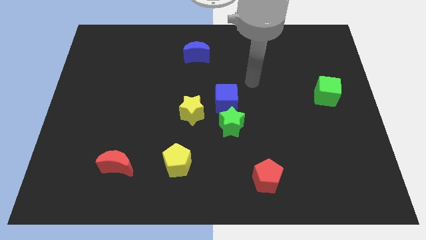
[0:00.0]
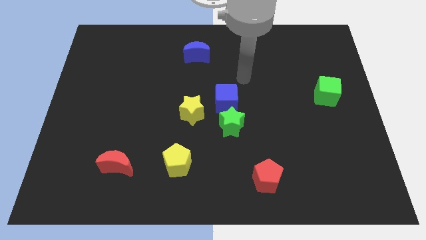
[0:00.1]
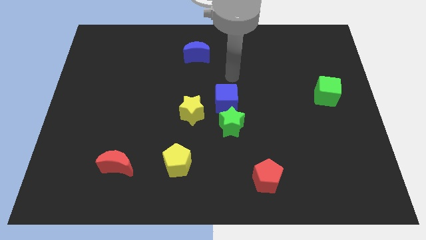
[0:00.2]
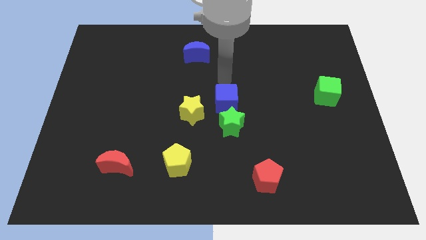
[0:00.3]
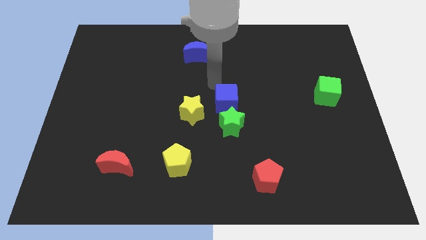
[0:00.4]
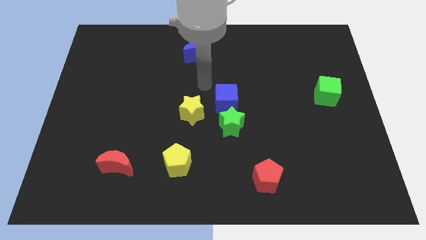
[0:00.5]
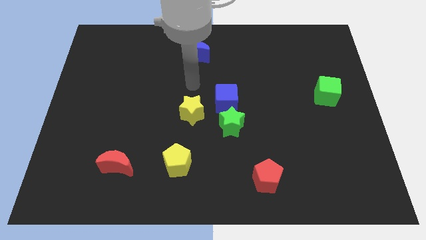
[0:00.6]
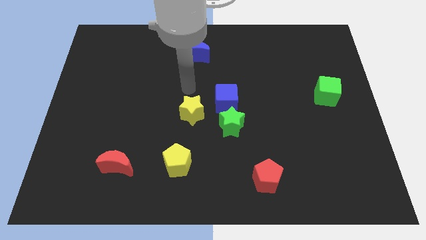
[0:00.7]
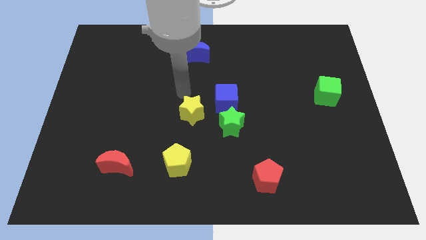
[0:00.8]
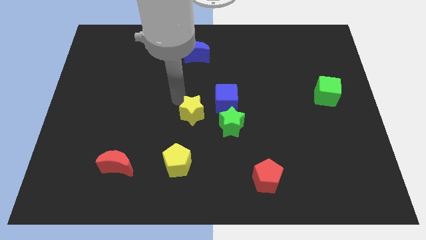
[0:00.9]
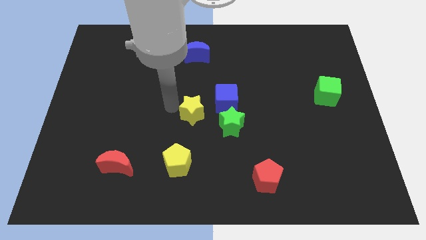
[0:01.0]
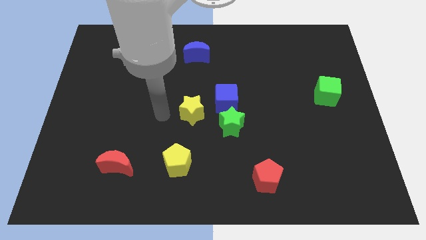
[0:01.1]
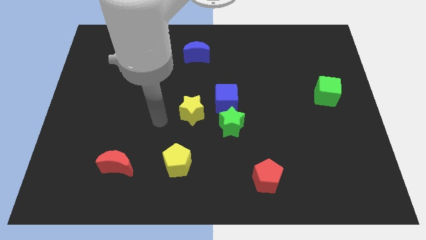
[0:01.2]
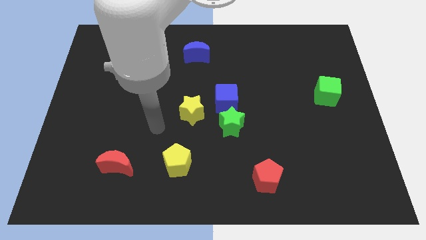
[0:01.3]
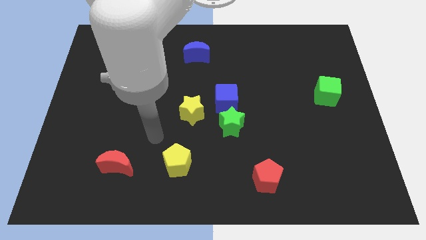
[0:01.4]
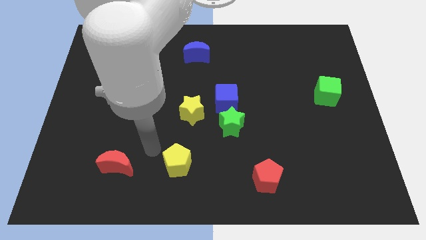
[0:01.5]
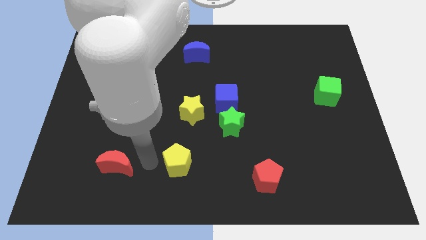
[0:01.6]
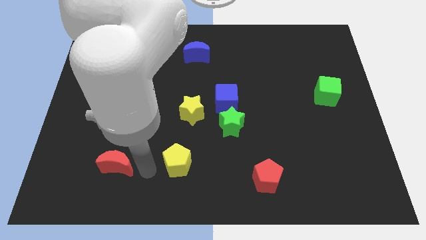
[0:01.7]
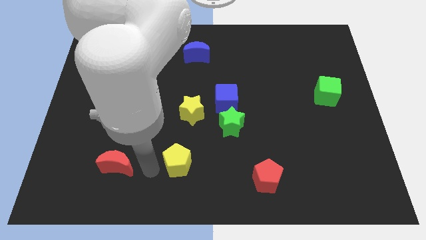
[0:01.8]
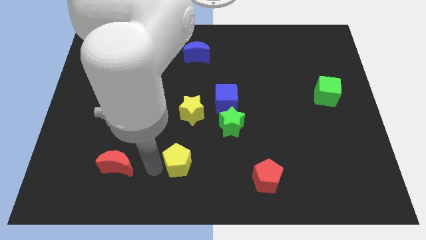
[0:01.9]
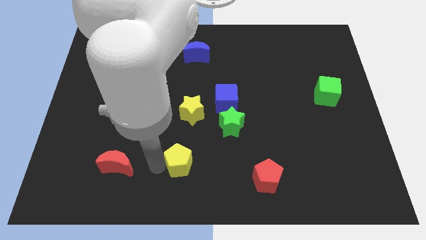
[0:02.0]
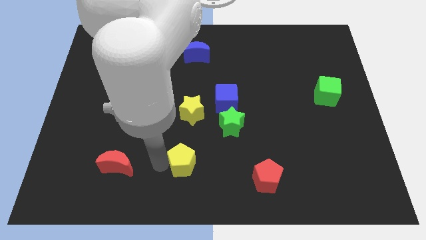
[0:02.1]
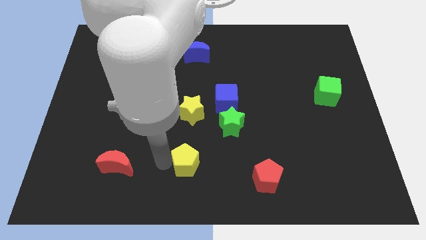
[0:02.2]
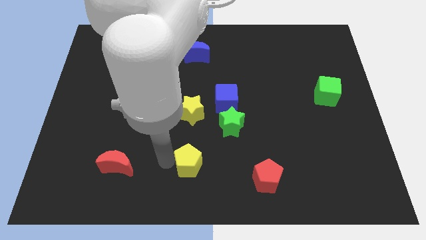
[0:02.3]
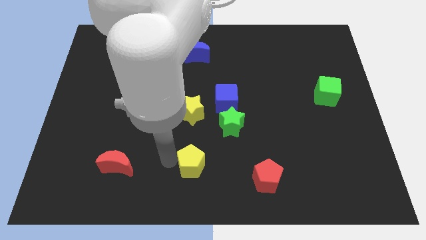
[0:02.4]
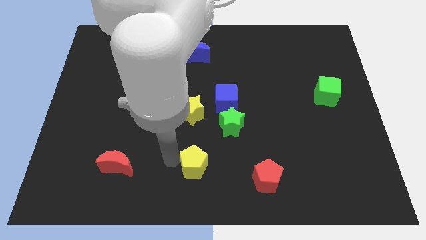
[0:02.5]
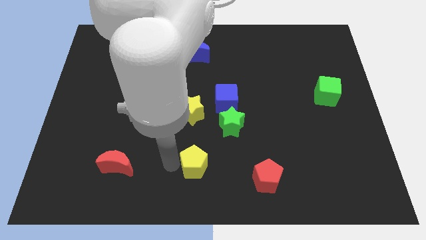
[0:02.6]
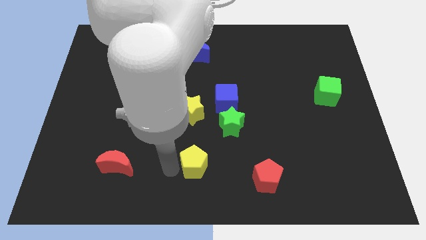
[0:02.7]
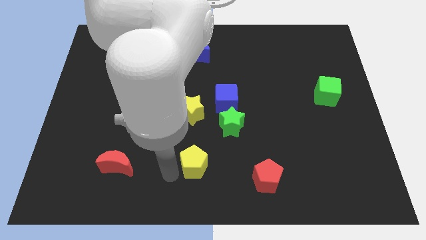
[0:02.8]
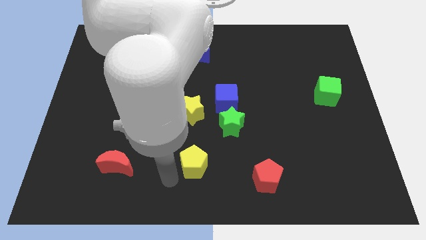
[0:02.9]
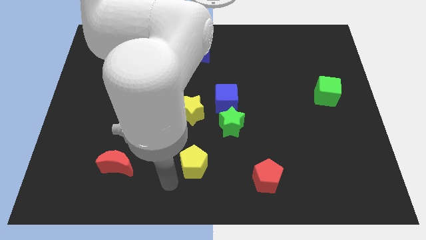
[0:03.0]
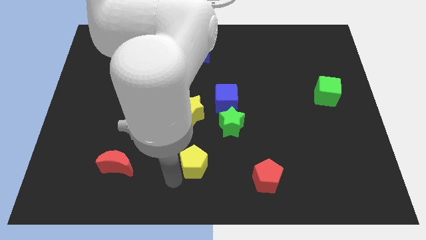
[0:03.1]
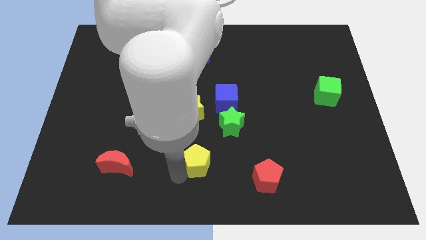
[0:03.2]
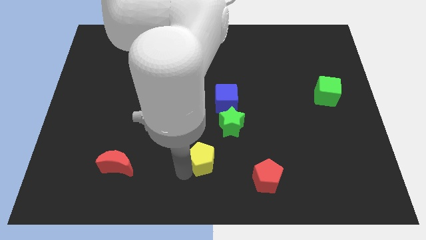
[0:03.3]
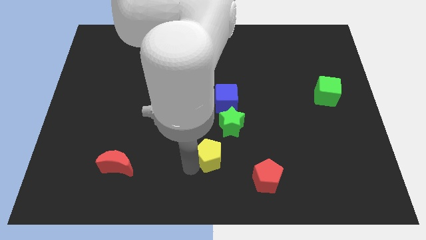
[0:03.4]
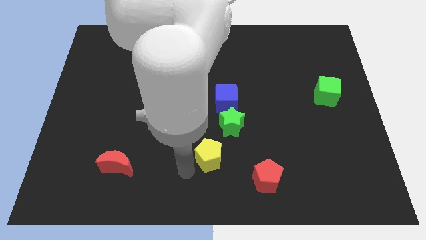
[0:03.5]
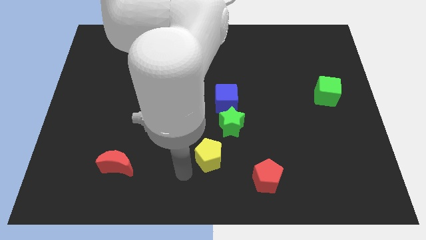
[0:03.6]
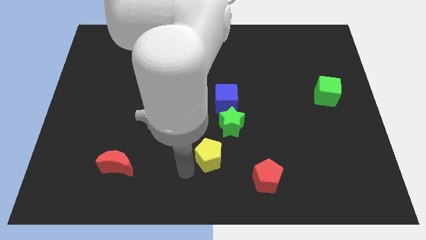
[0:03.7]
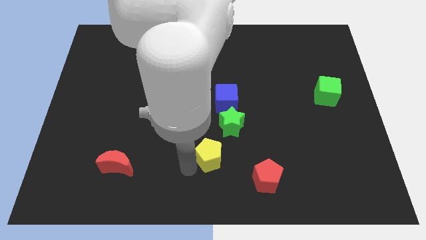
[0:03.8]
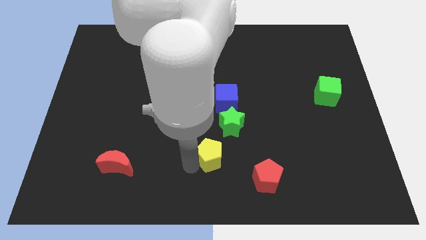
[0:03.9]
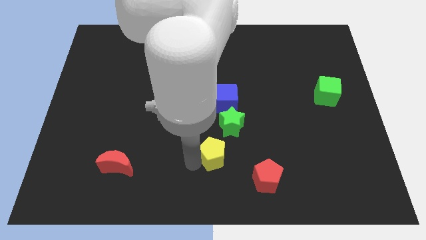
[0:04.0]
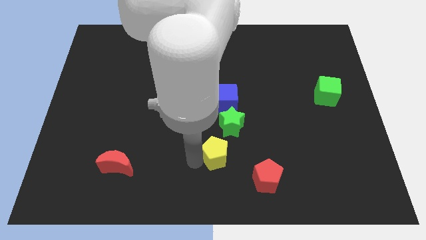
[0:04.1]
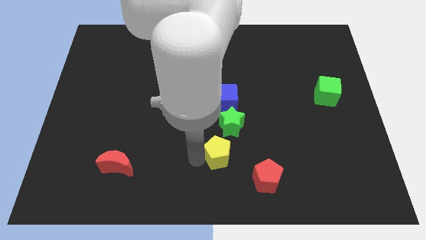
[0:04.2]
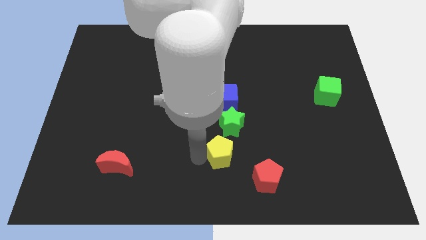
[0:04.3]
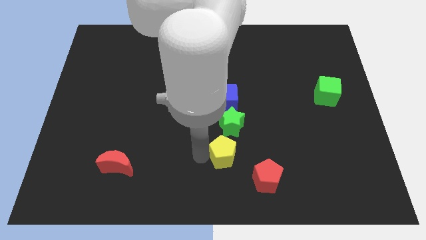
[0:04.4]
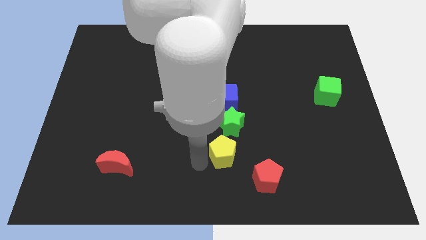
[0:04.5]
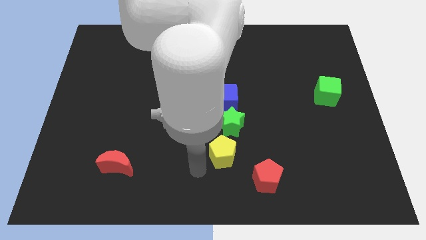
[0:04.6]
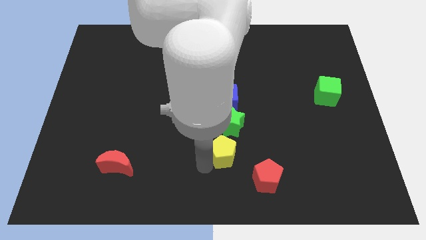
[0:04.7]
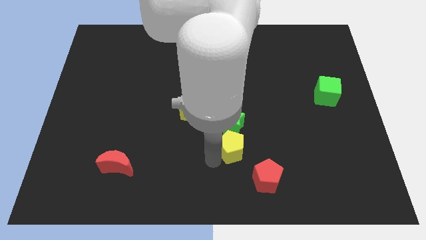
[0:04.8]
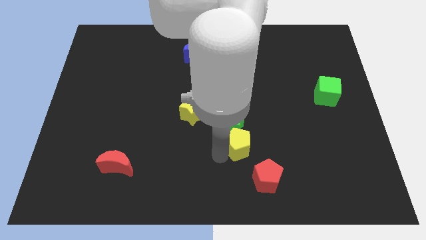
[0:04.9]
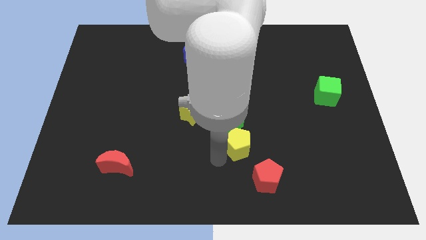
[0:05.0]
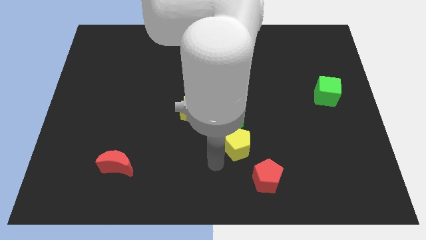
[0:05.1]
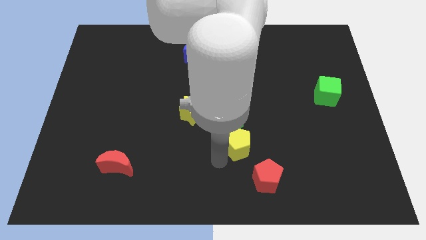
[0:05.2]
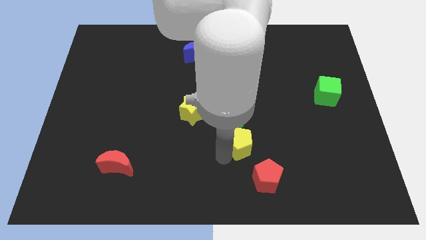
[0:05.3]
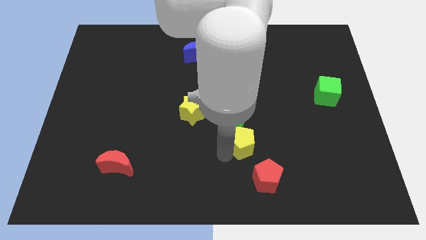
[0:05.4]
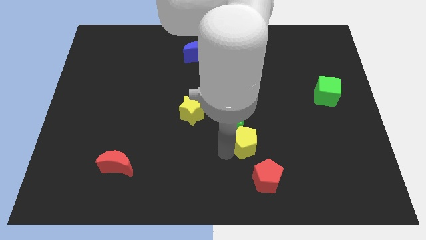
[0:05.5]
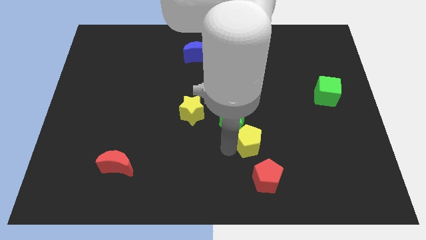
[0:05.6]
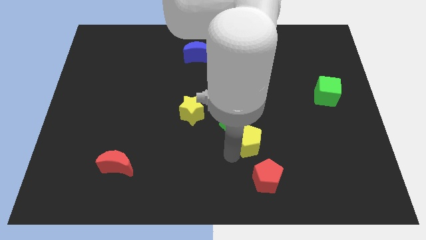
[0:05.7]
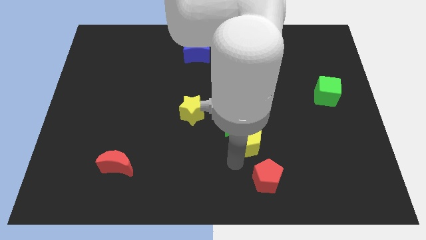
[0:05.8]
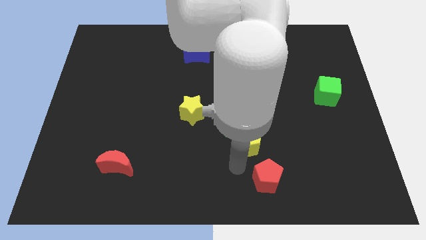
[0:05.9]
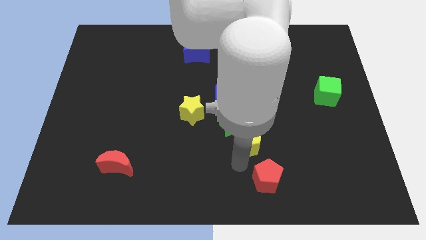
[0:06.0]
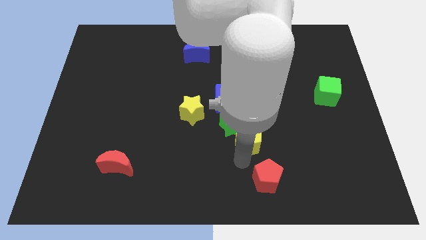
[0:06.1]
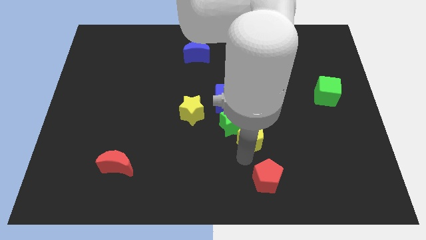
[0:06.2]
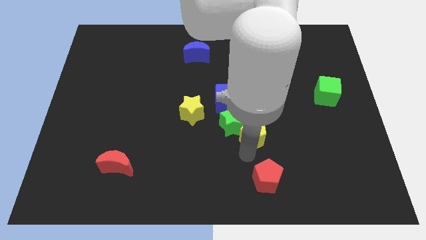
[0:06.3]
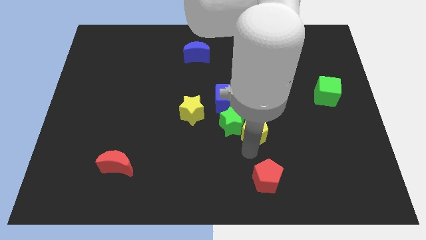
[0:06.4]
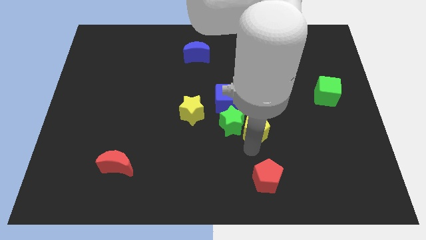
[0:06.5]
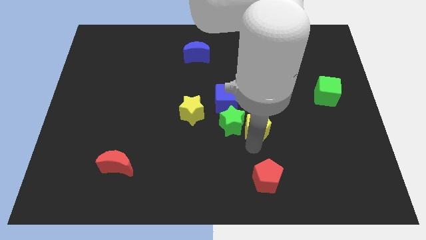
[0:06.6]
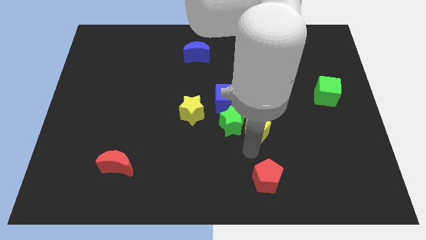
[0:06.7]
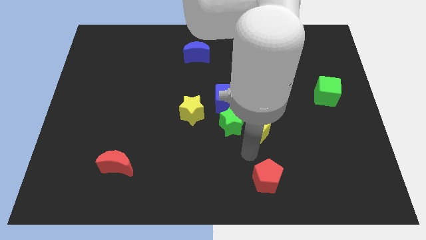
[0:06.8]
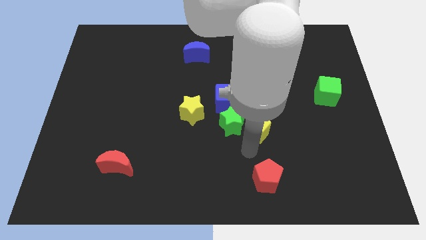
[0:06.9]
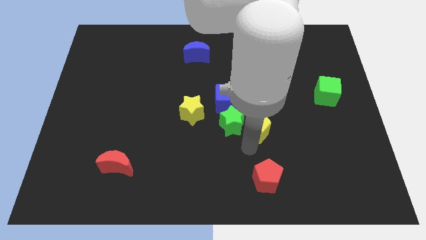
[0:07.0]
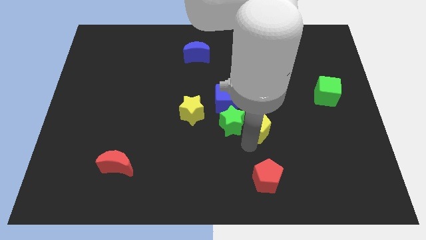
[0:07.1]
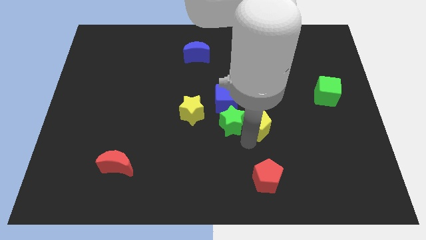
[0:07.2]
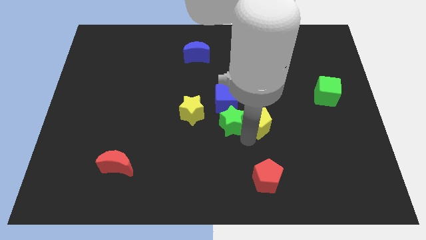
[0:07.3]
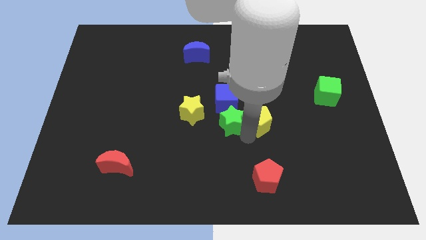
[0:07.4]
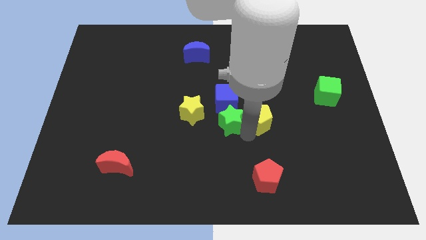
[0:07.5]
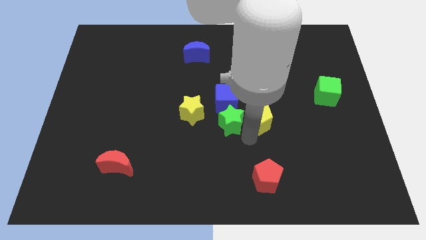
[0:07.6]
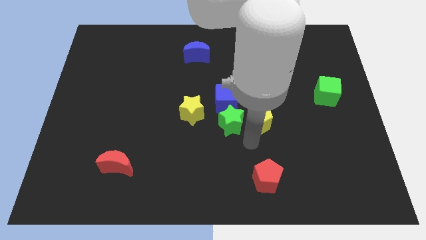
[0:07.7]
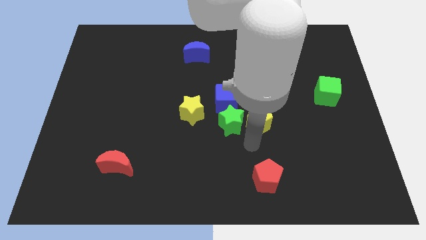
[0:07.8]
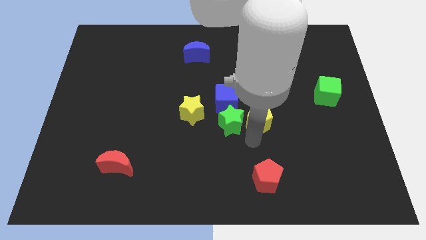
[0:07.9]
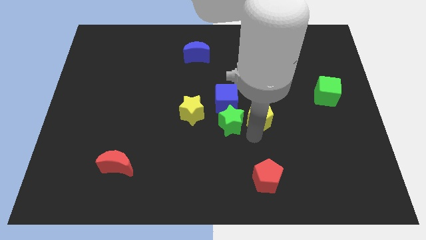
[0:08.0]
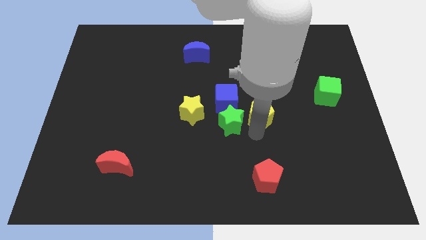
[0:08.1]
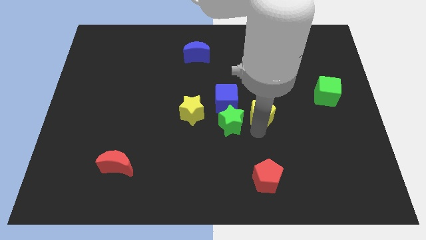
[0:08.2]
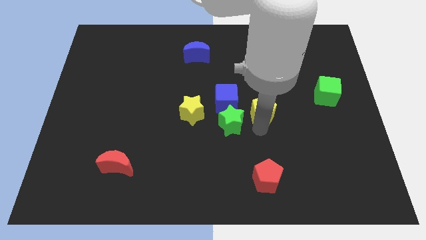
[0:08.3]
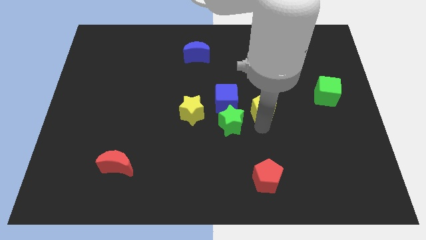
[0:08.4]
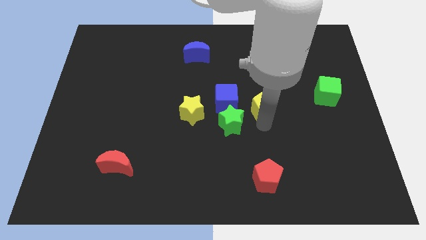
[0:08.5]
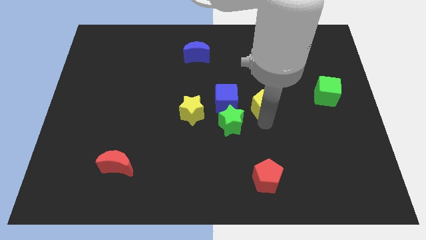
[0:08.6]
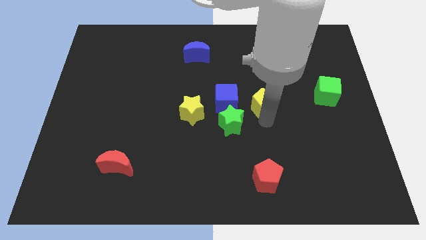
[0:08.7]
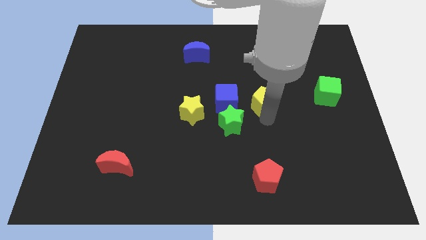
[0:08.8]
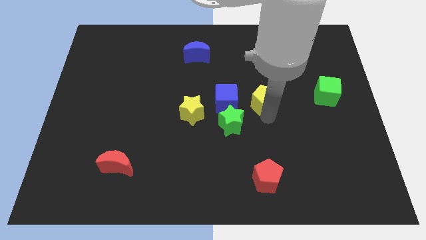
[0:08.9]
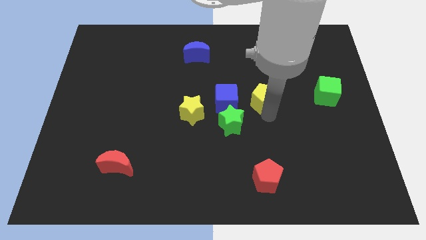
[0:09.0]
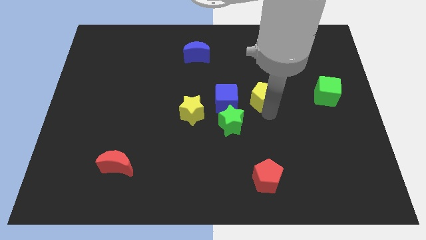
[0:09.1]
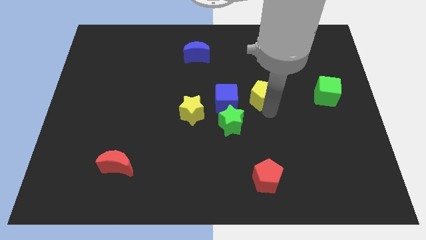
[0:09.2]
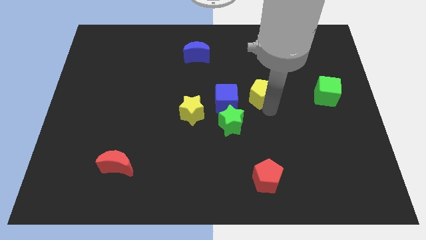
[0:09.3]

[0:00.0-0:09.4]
push the yellow pentagon diagonally up and to the right of the blue cube
